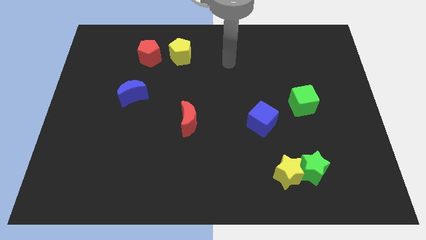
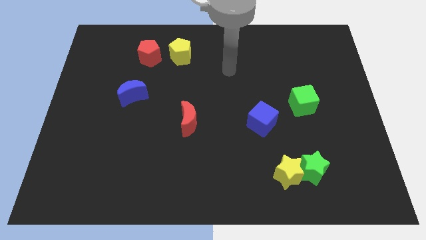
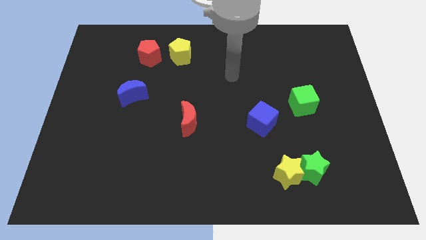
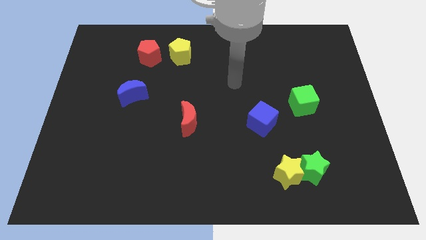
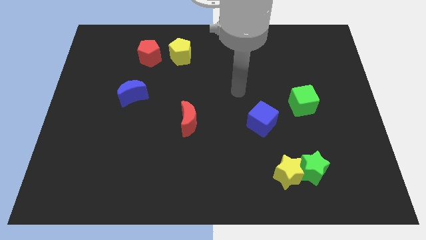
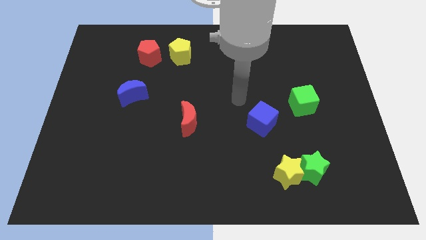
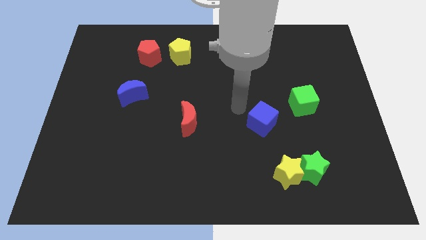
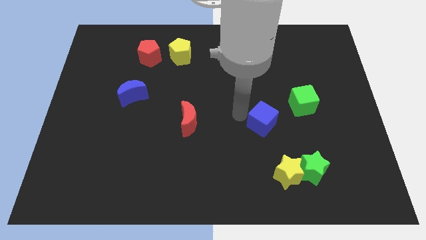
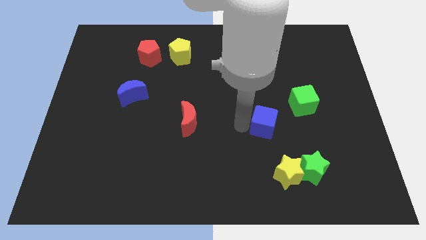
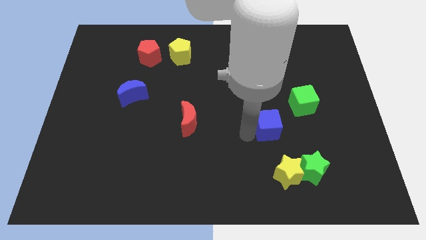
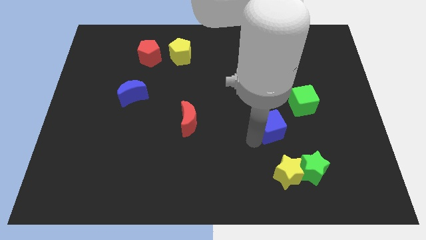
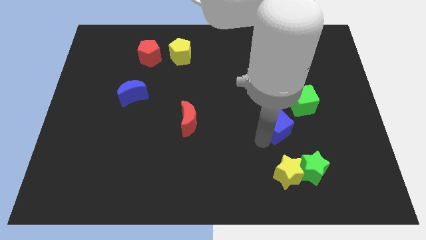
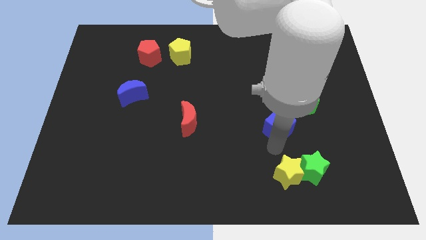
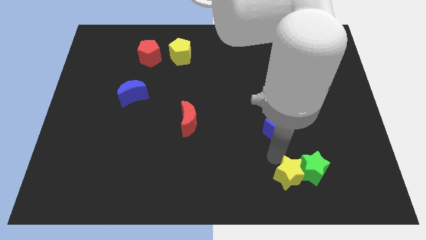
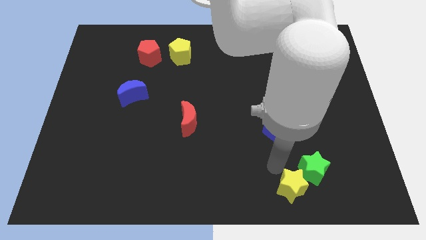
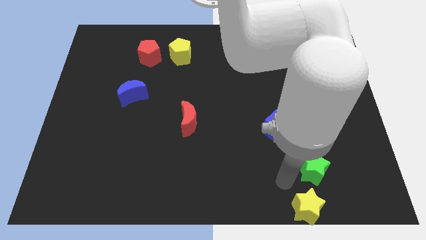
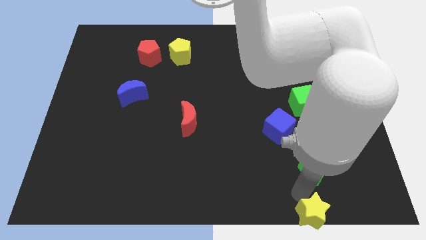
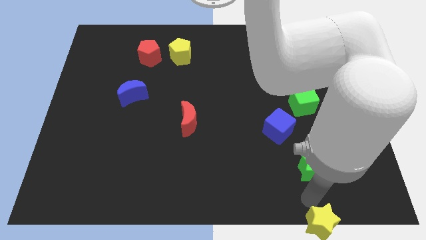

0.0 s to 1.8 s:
separate the green star from the yellow star

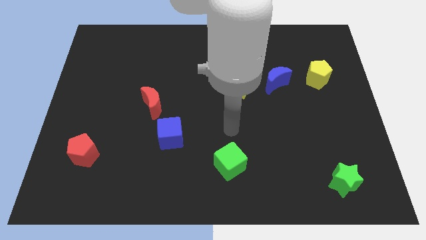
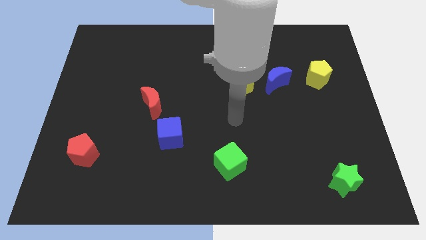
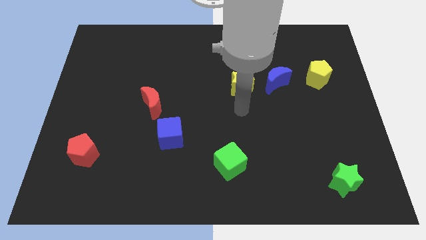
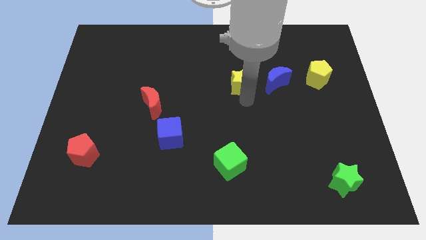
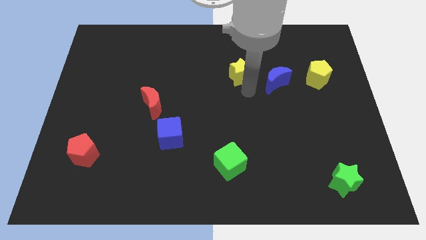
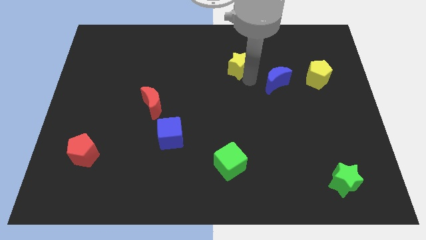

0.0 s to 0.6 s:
pull the blue moon apart from the yellow star

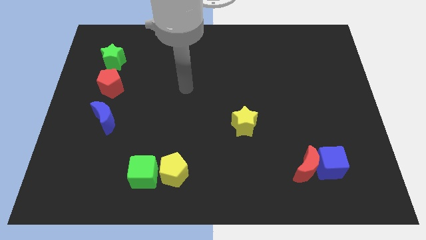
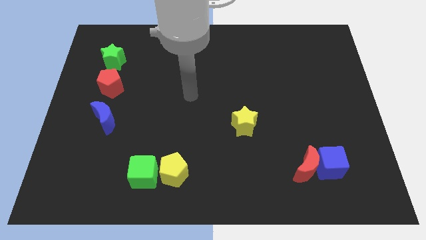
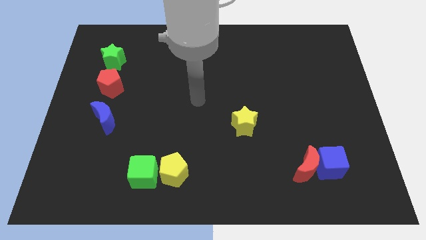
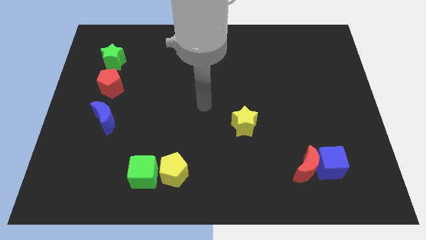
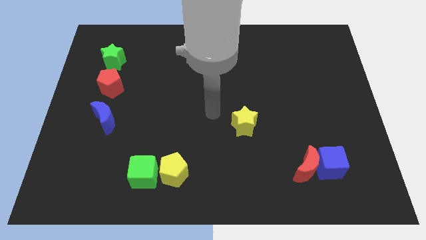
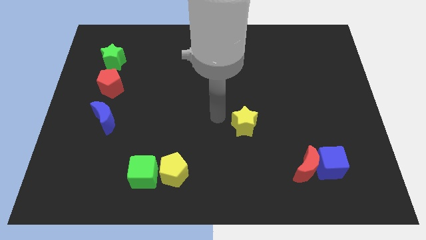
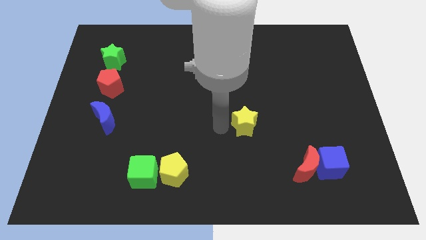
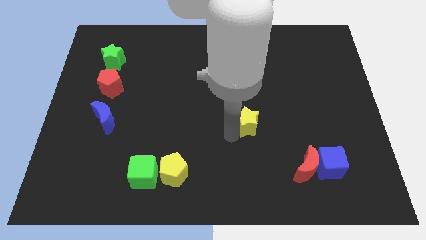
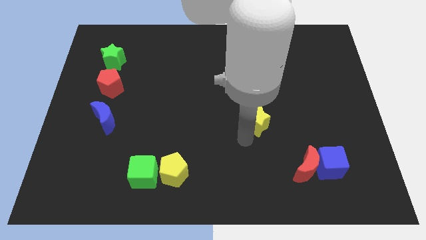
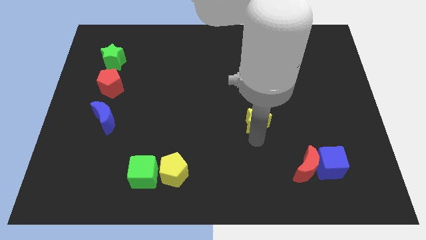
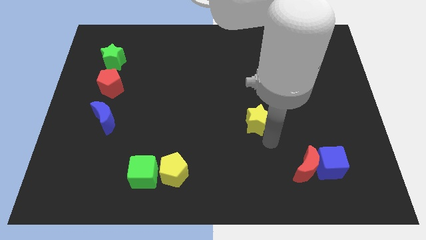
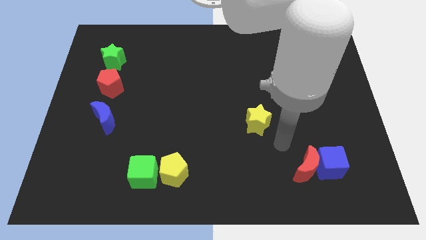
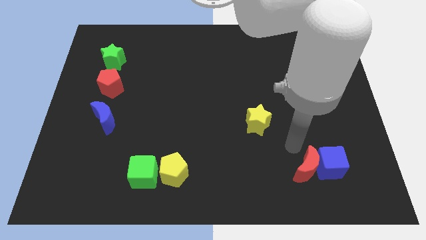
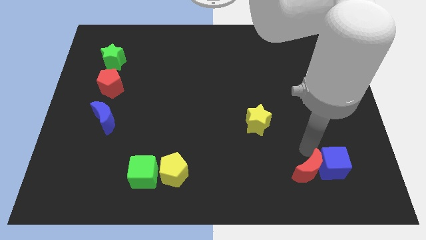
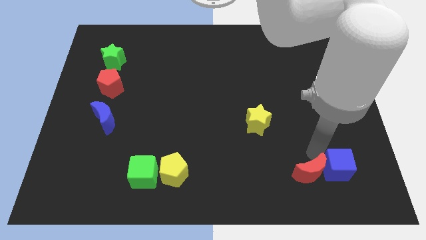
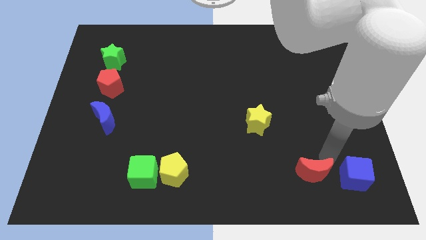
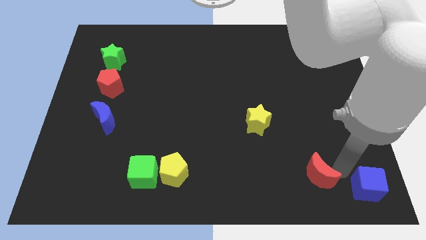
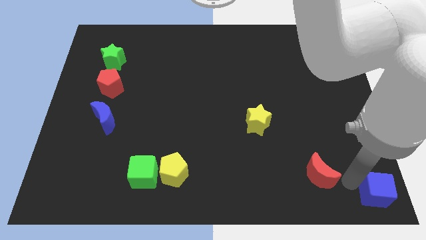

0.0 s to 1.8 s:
pull the red moon apart from the blue cube

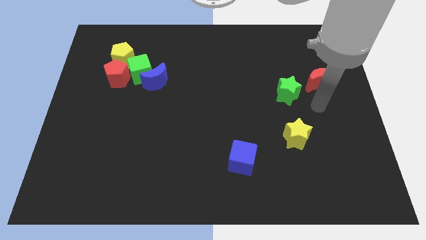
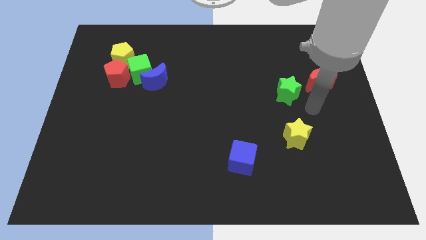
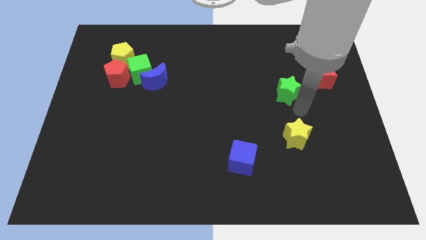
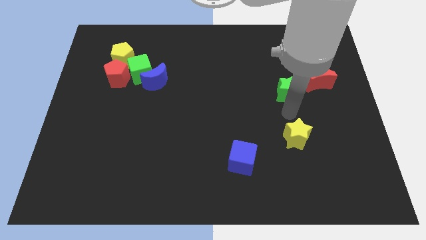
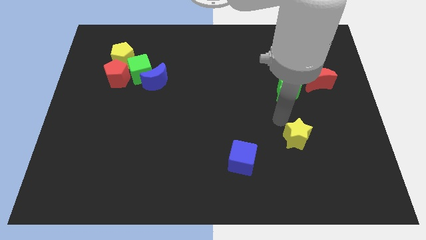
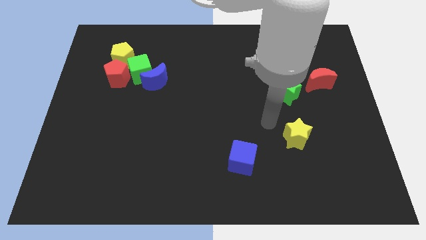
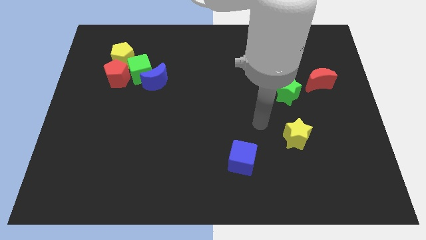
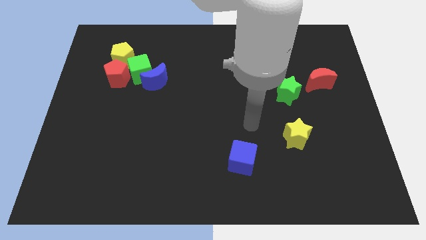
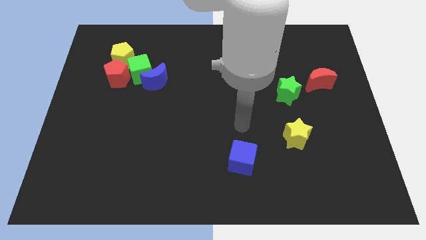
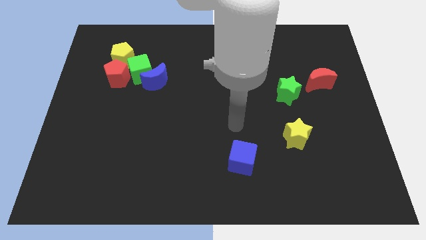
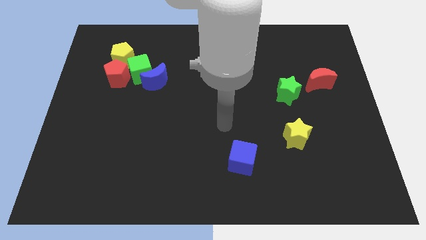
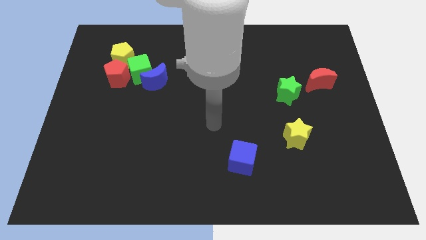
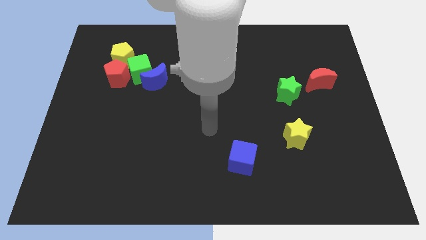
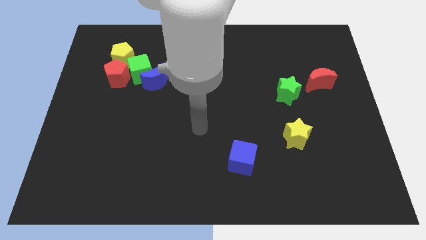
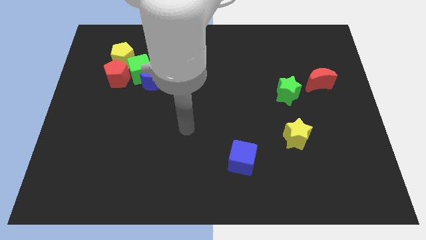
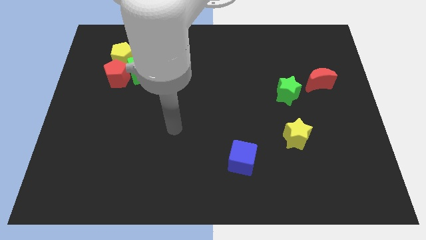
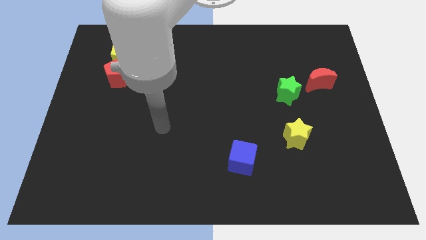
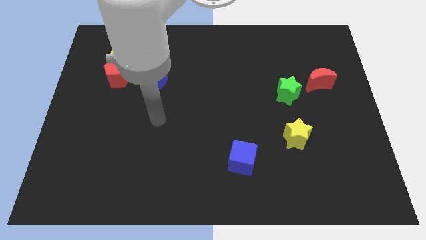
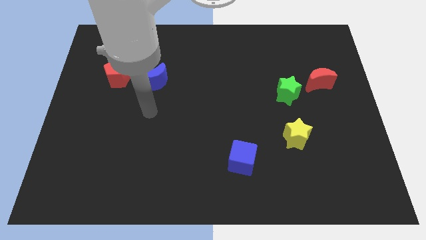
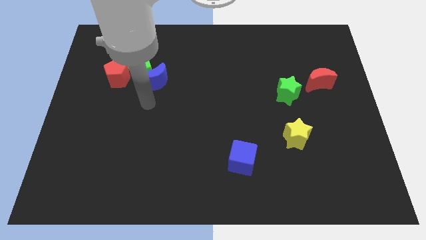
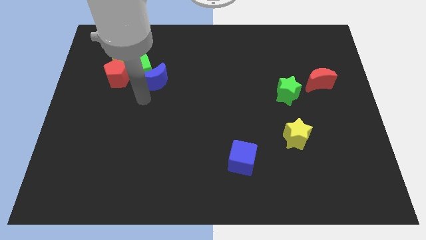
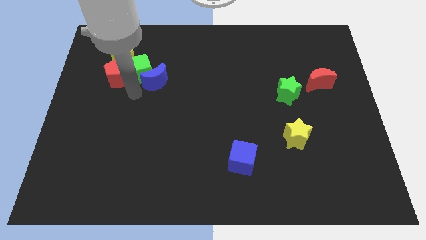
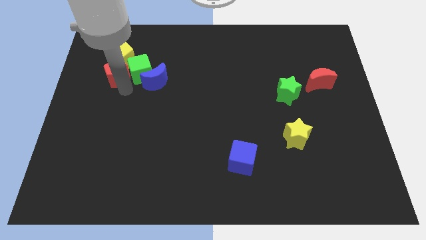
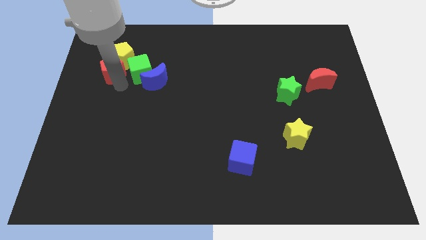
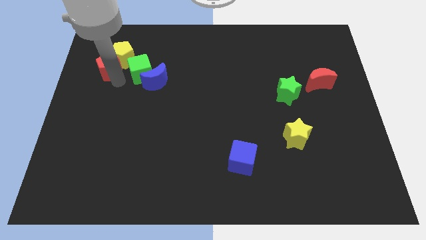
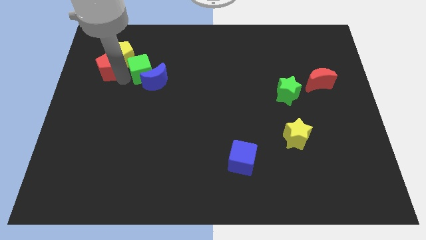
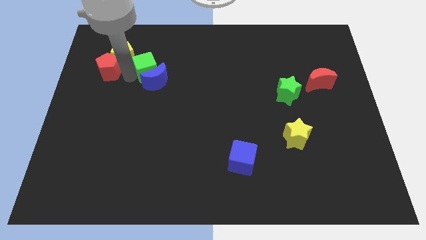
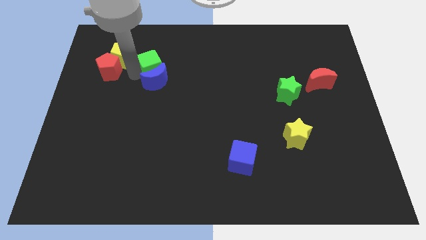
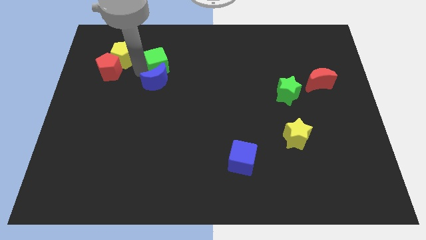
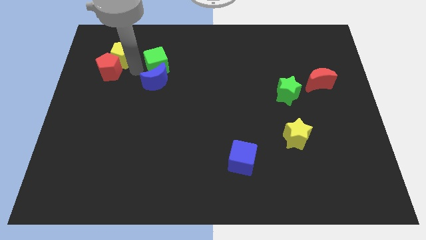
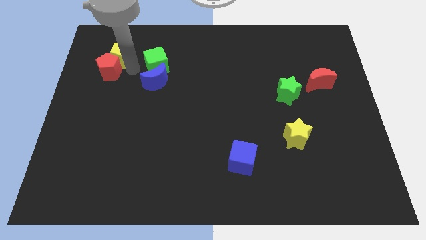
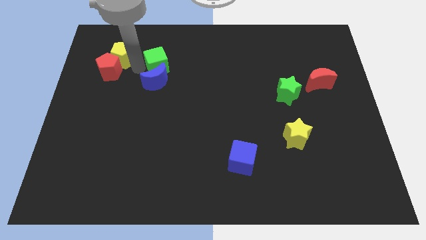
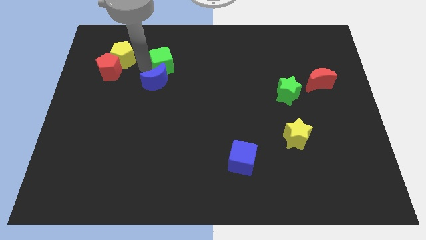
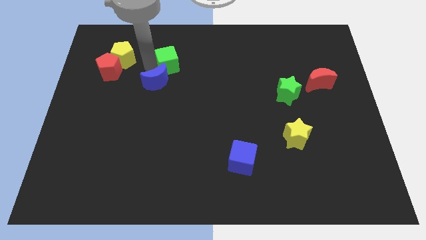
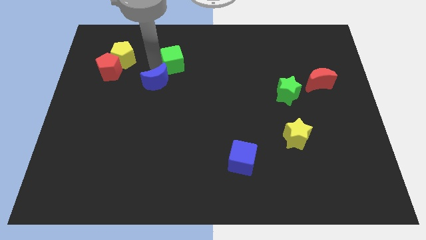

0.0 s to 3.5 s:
move the green cube away from the group

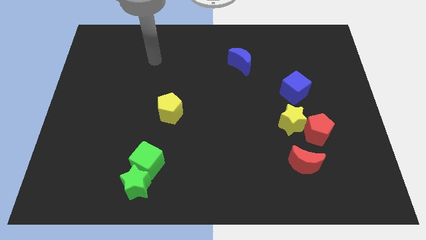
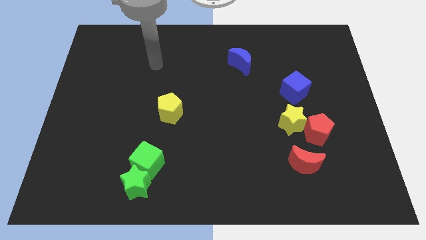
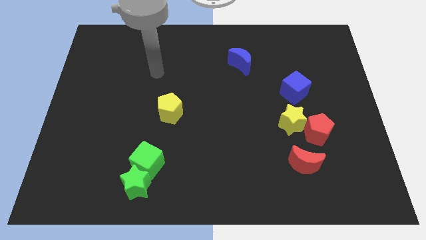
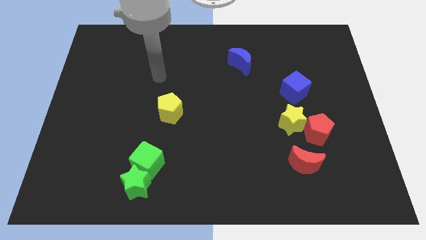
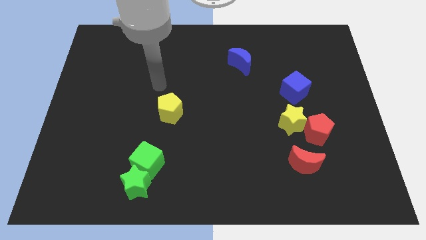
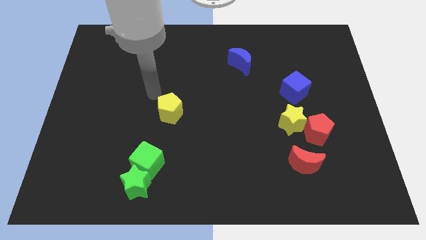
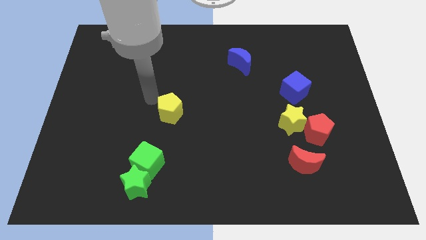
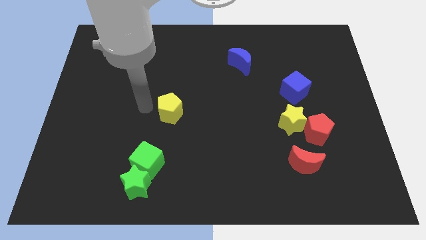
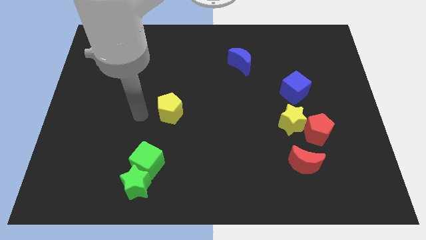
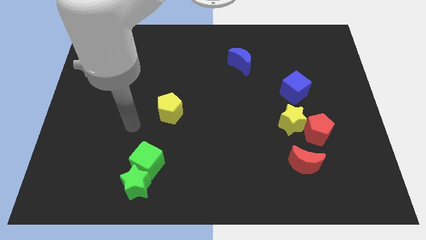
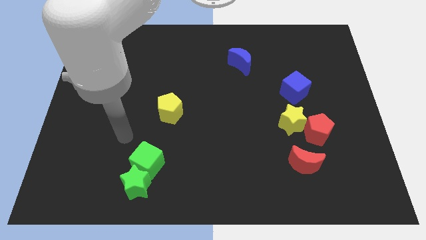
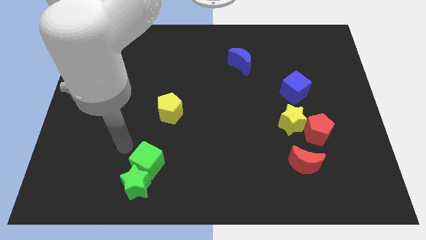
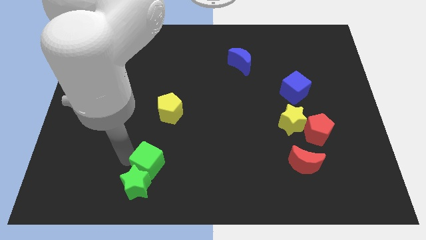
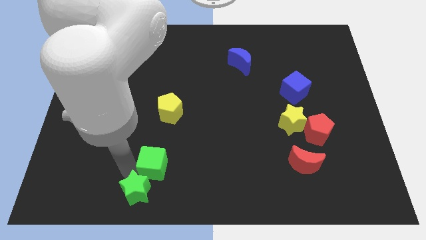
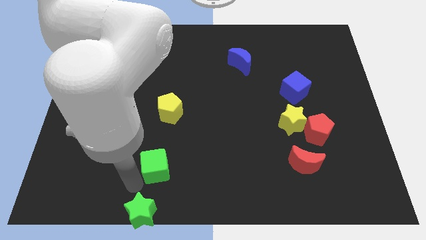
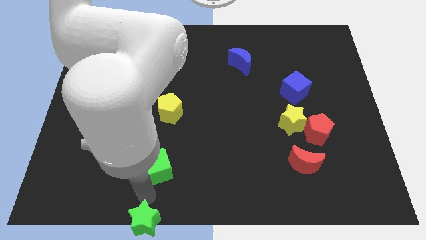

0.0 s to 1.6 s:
separate the green cube from the green star

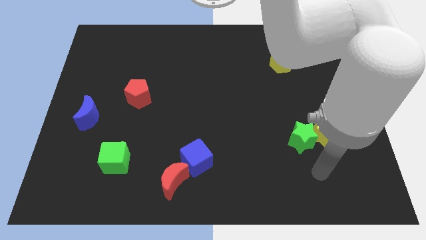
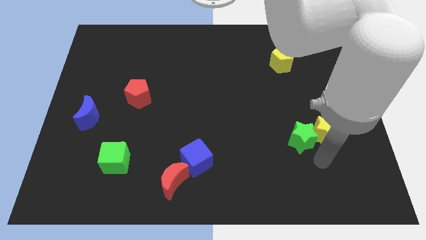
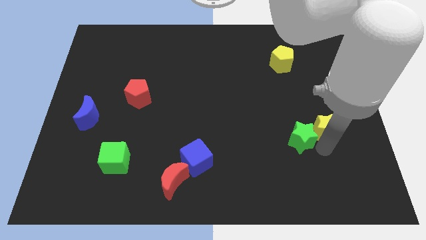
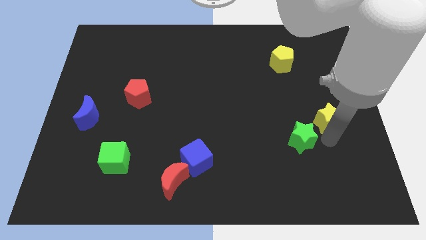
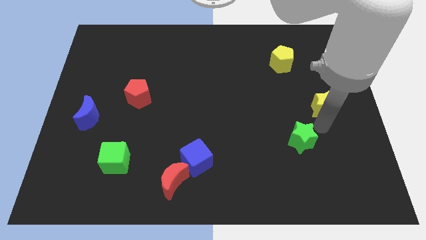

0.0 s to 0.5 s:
pull the green star apart from the yellow star
